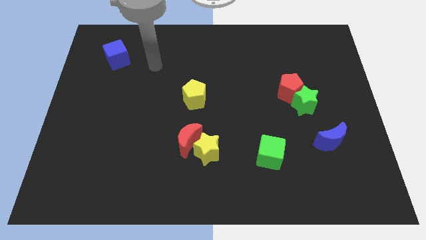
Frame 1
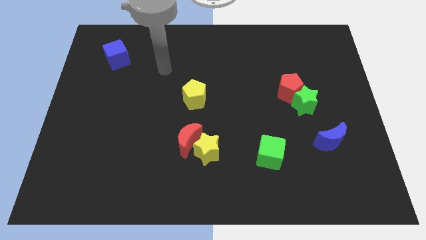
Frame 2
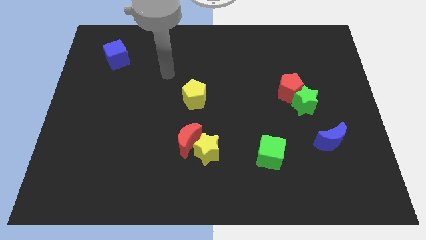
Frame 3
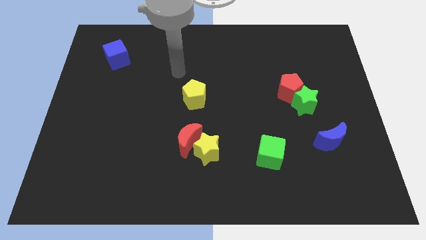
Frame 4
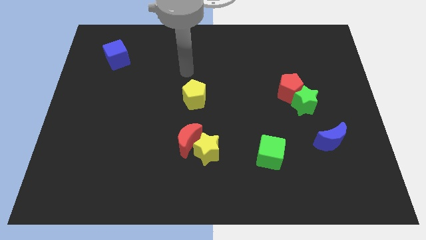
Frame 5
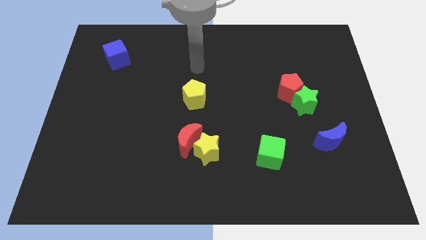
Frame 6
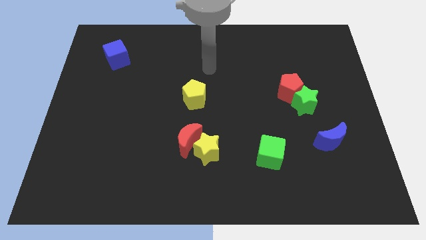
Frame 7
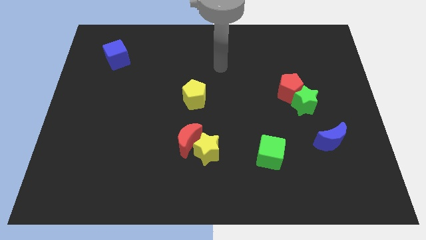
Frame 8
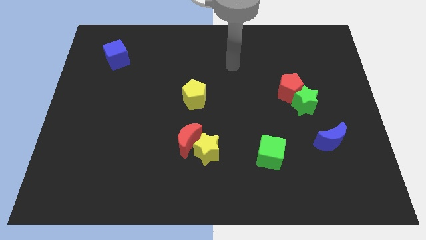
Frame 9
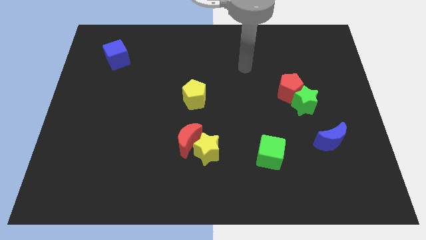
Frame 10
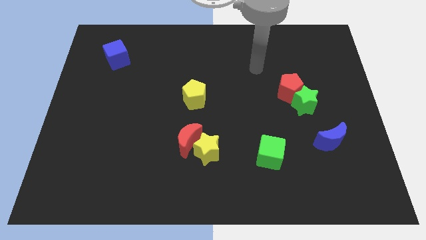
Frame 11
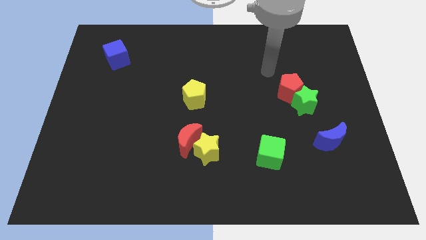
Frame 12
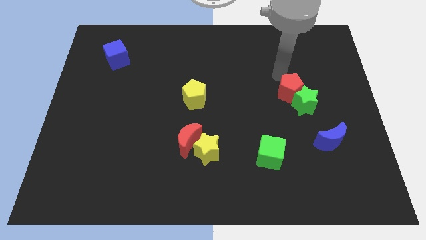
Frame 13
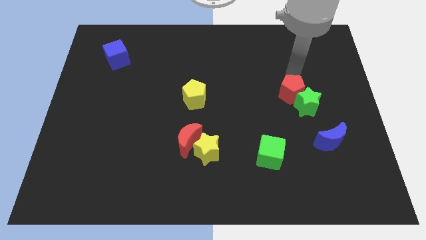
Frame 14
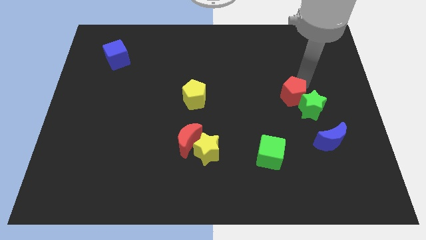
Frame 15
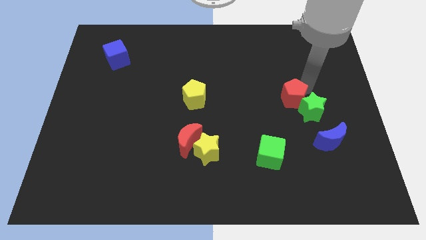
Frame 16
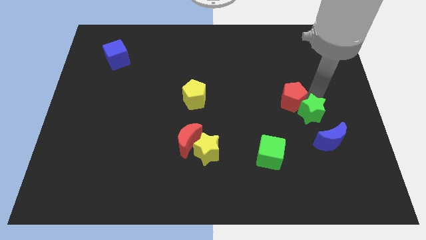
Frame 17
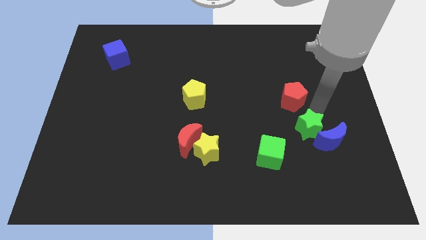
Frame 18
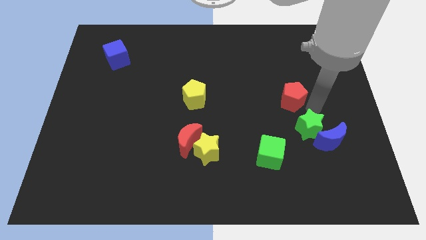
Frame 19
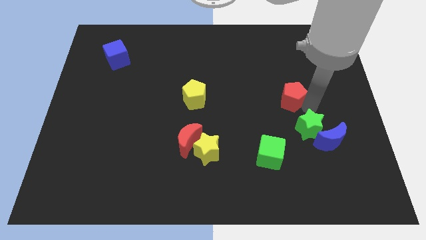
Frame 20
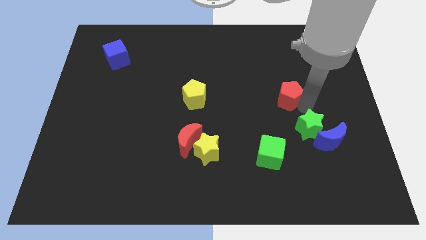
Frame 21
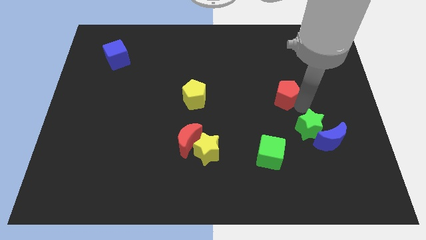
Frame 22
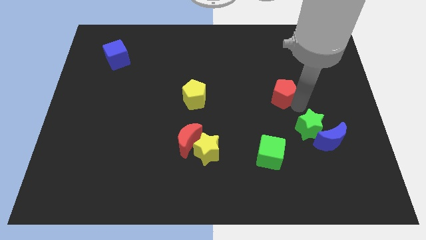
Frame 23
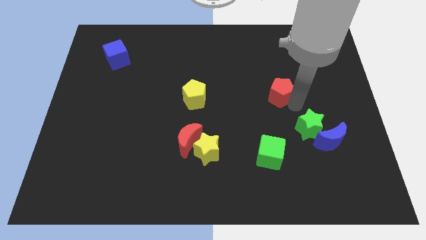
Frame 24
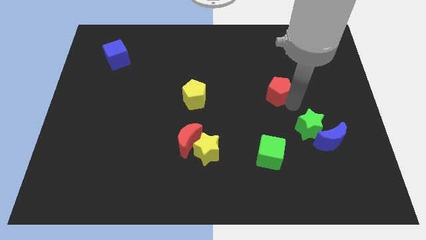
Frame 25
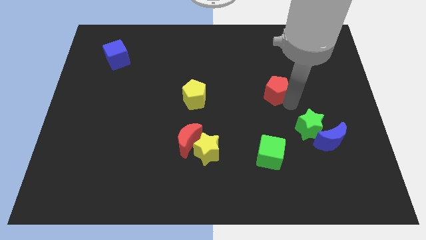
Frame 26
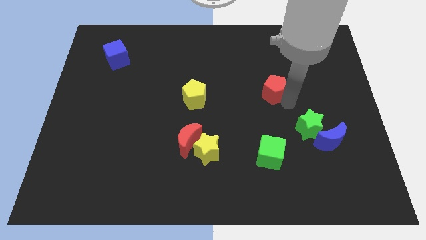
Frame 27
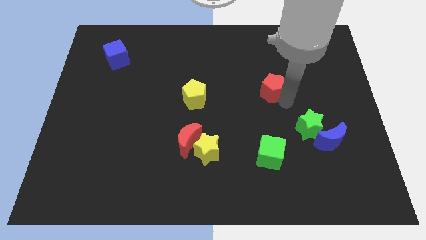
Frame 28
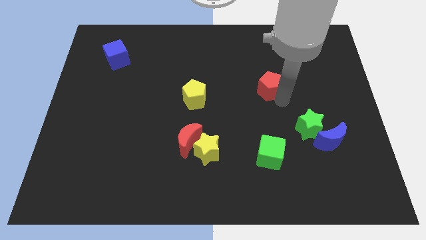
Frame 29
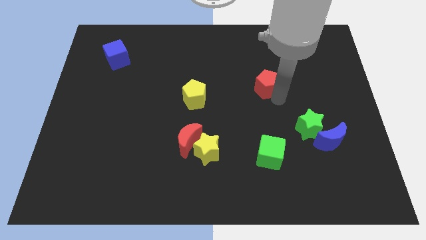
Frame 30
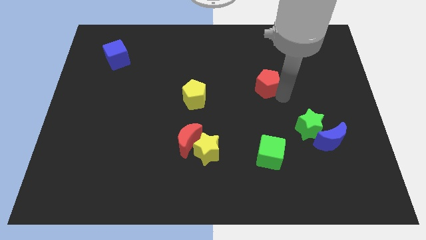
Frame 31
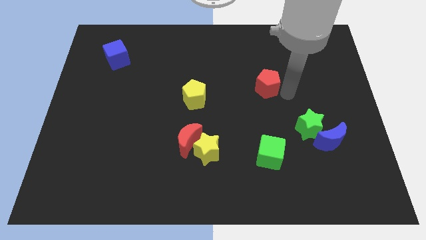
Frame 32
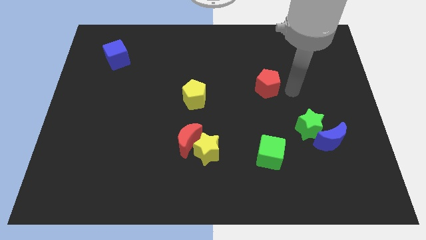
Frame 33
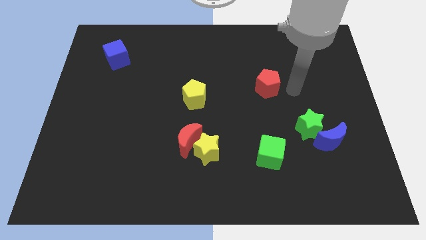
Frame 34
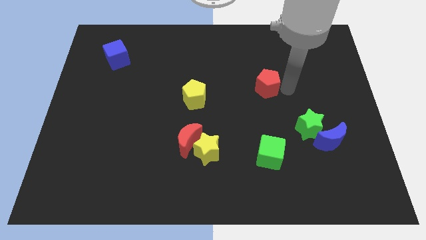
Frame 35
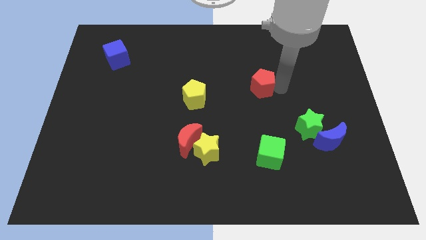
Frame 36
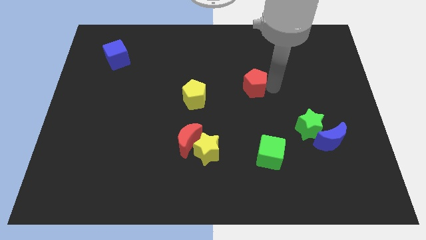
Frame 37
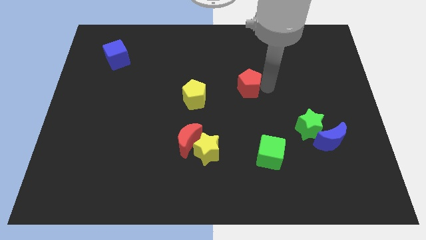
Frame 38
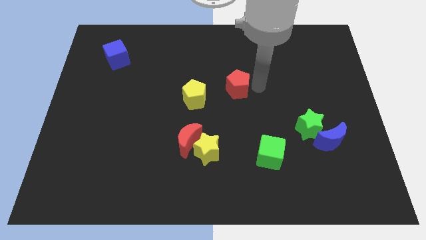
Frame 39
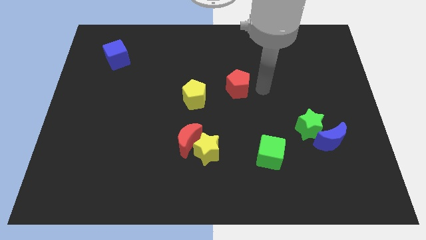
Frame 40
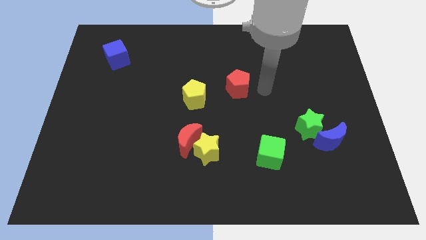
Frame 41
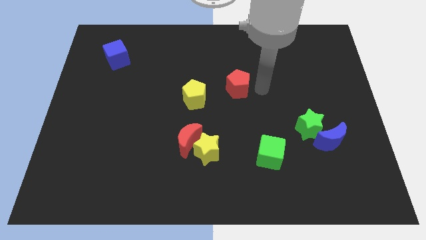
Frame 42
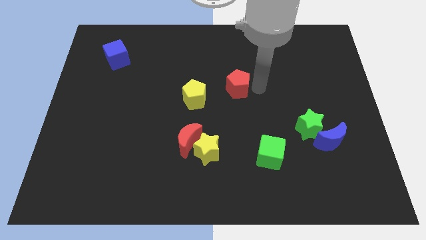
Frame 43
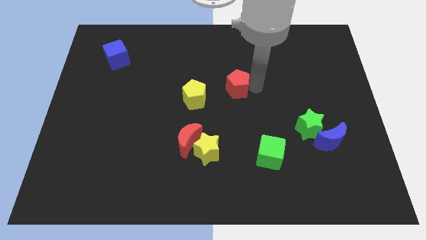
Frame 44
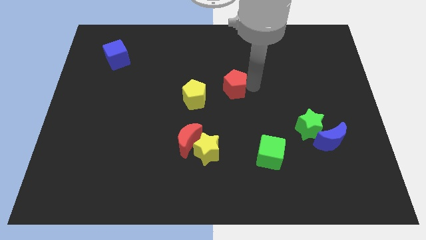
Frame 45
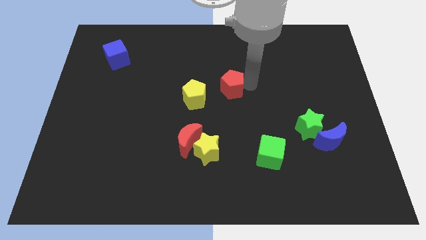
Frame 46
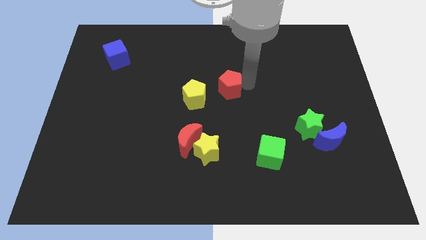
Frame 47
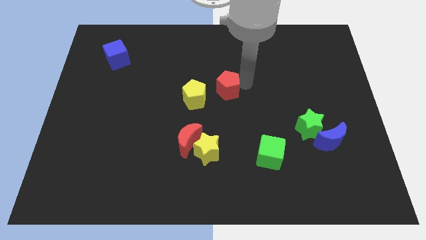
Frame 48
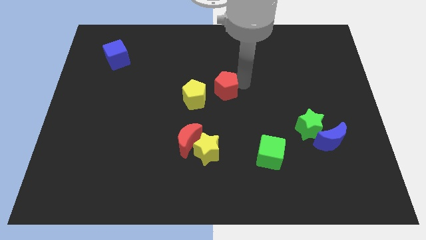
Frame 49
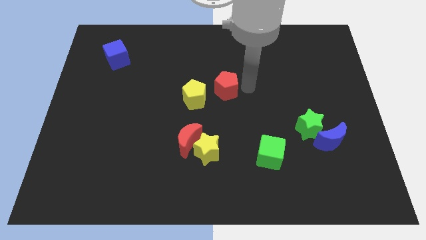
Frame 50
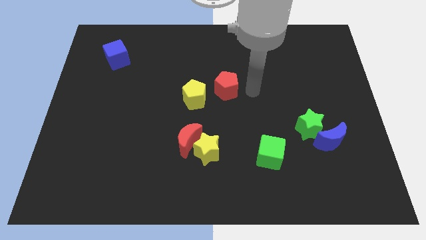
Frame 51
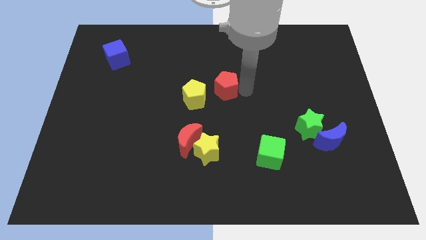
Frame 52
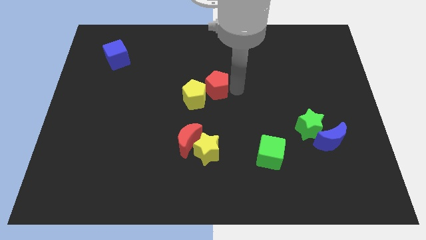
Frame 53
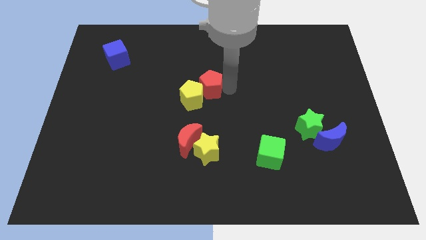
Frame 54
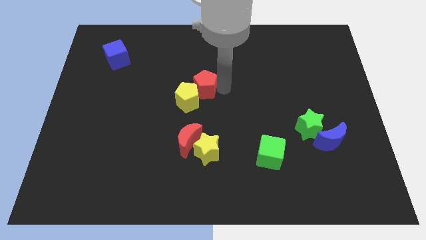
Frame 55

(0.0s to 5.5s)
slide the red pentagon left

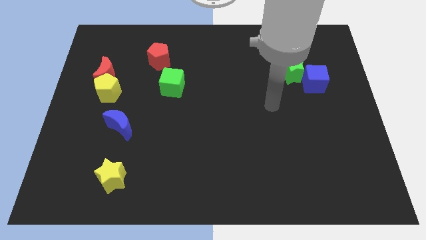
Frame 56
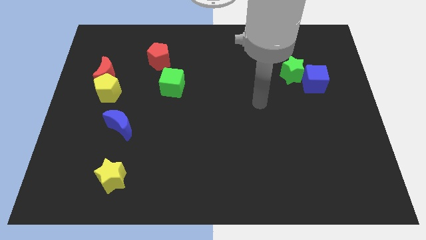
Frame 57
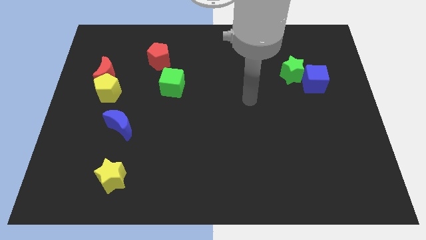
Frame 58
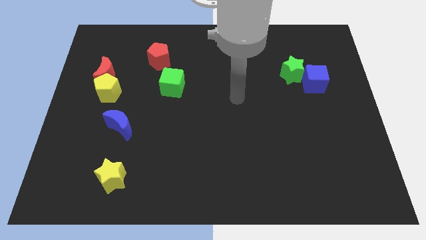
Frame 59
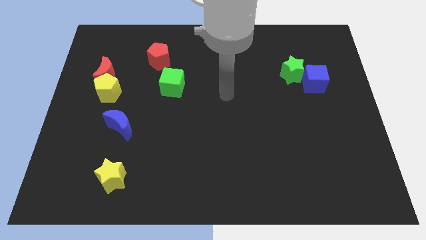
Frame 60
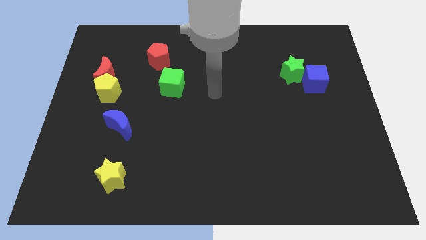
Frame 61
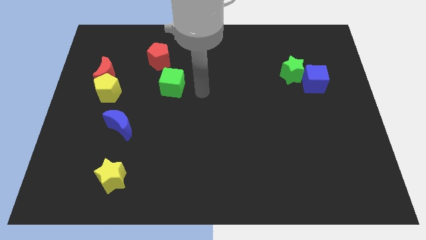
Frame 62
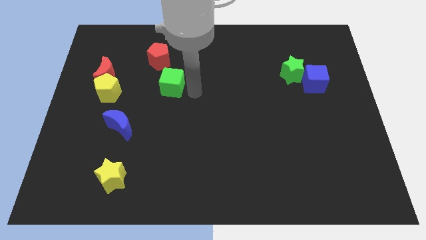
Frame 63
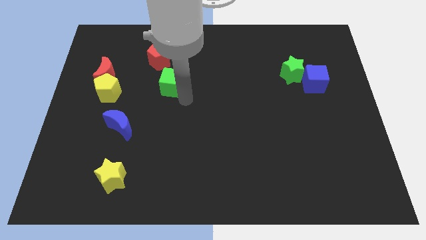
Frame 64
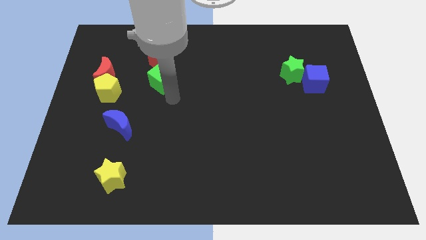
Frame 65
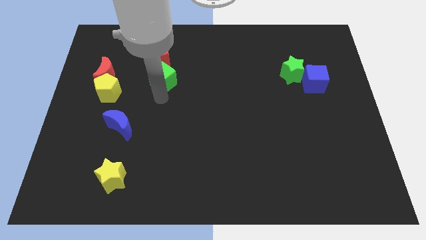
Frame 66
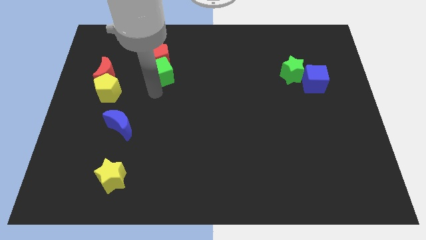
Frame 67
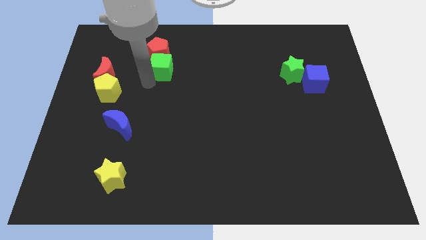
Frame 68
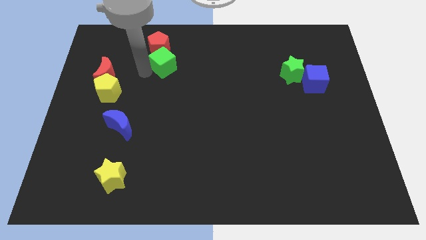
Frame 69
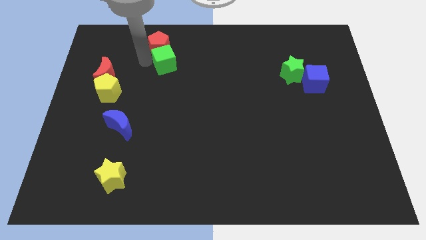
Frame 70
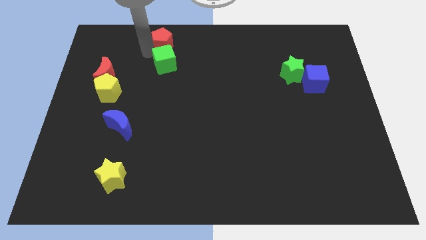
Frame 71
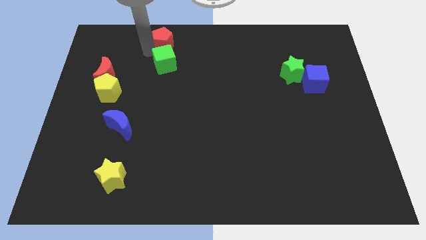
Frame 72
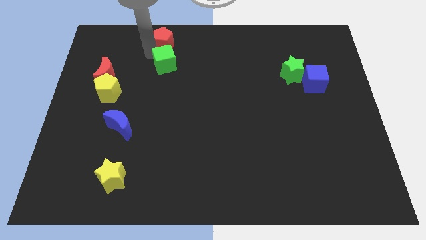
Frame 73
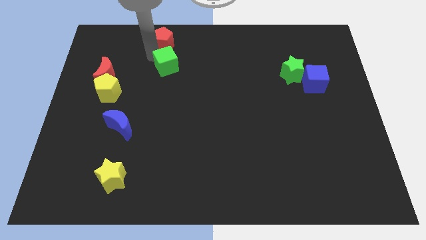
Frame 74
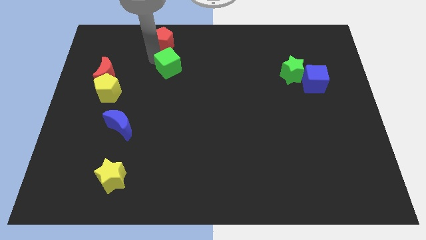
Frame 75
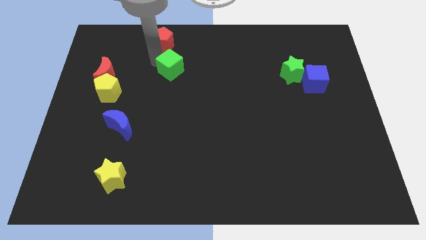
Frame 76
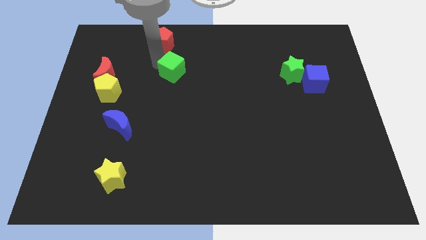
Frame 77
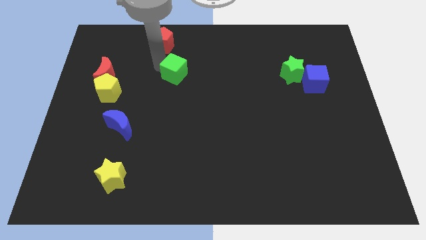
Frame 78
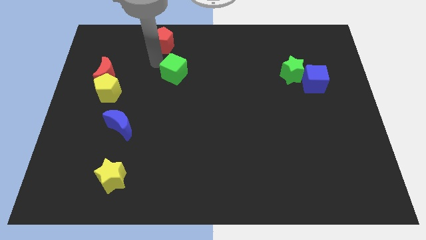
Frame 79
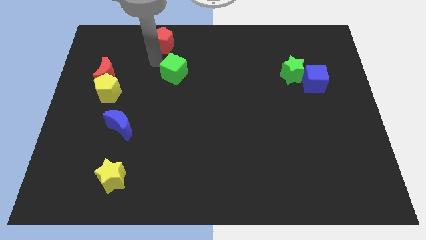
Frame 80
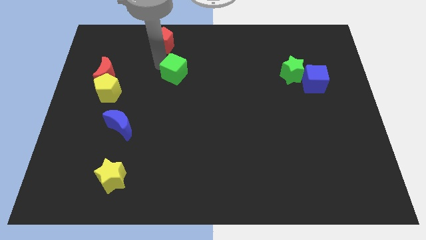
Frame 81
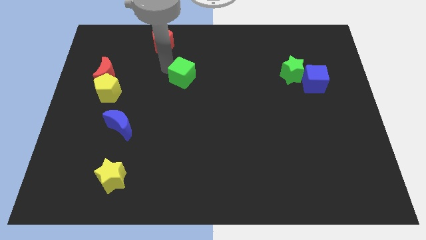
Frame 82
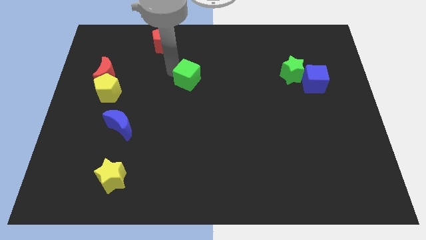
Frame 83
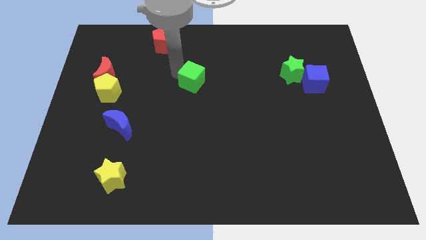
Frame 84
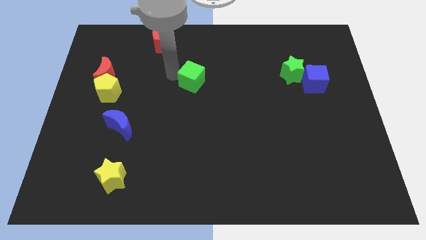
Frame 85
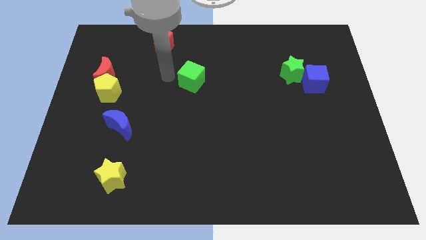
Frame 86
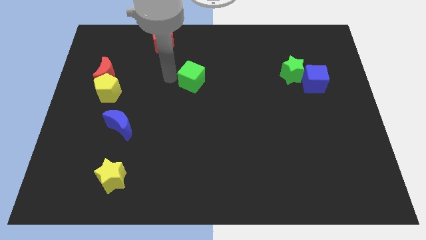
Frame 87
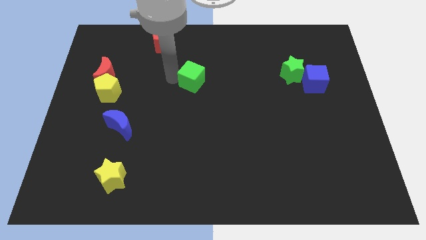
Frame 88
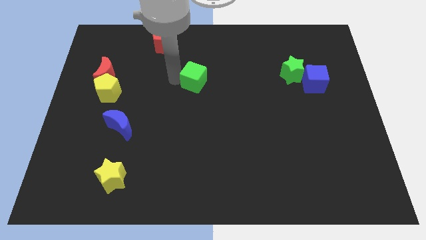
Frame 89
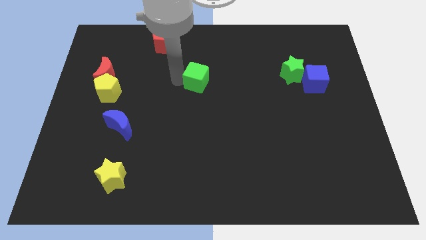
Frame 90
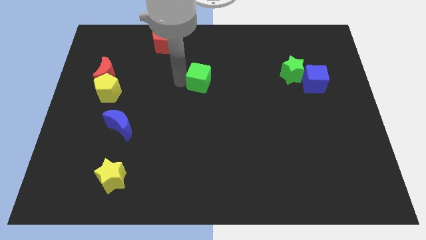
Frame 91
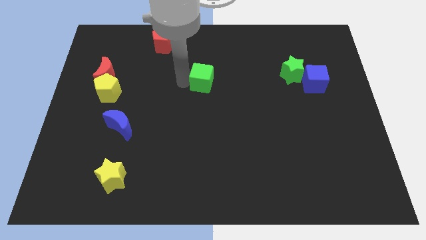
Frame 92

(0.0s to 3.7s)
slightly slide the green cube to the right
